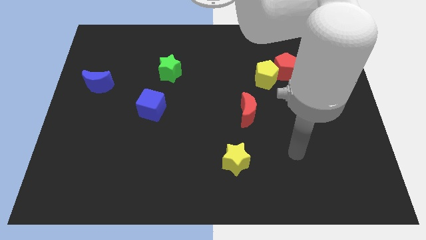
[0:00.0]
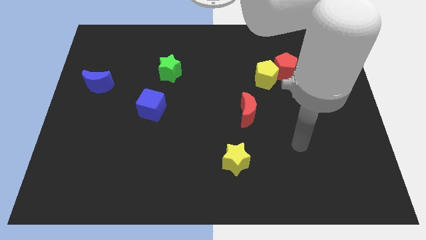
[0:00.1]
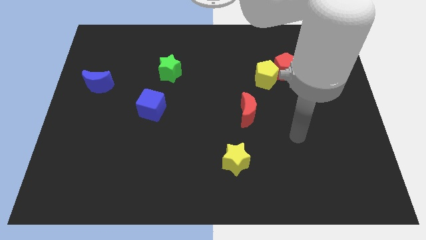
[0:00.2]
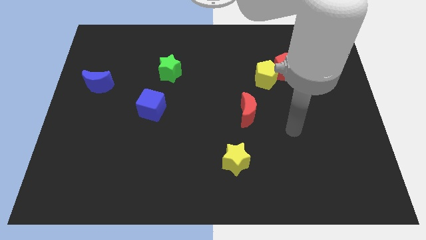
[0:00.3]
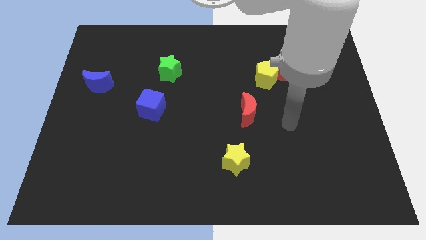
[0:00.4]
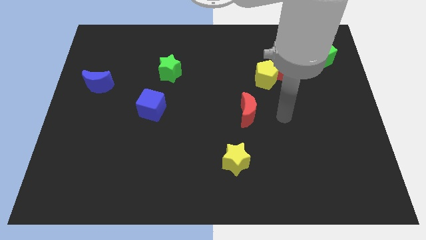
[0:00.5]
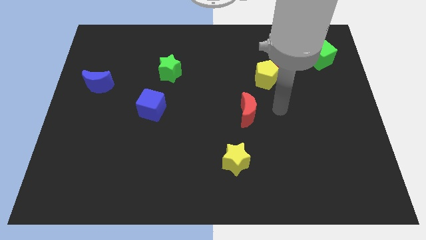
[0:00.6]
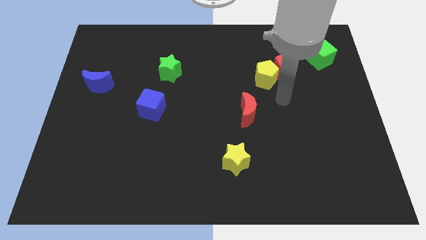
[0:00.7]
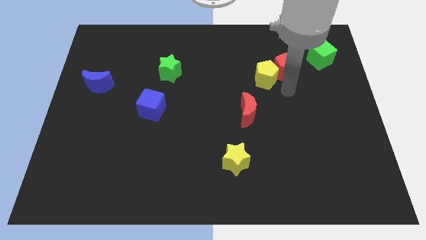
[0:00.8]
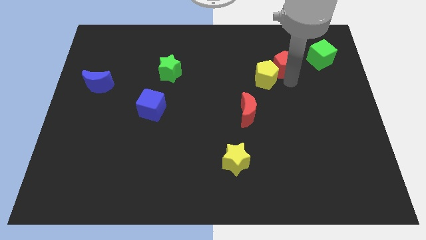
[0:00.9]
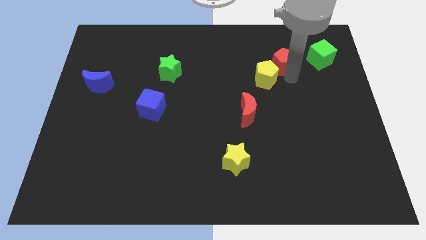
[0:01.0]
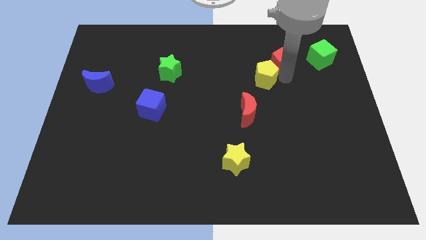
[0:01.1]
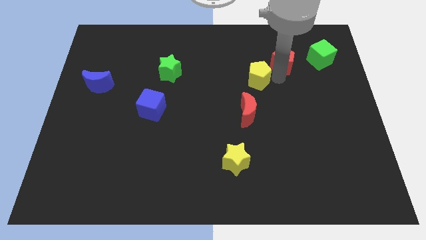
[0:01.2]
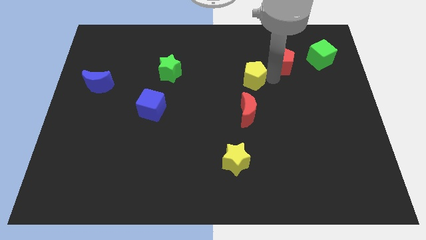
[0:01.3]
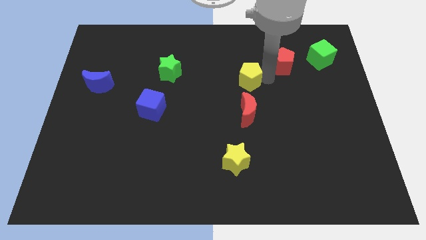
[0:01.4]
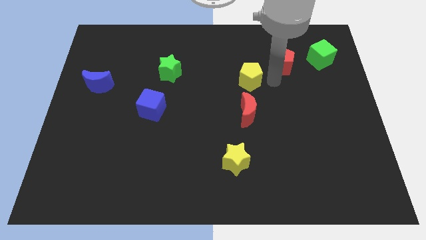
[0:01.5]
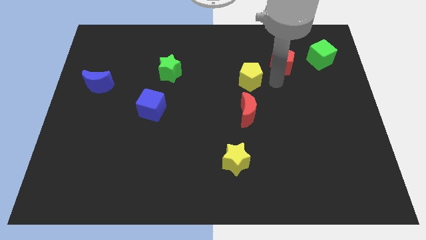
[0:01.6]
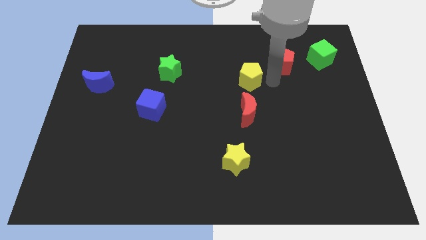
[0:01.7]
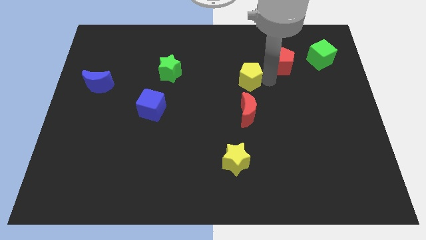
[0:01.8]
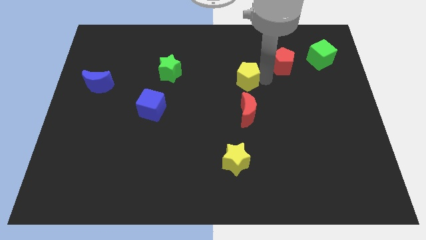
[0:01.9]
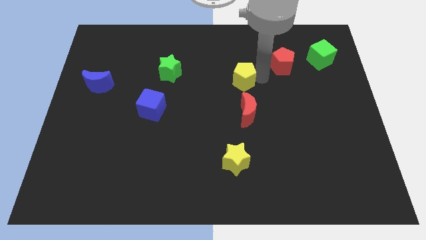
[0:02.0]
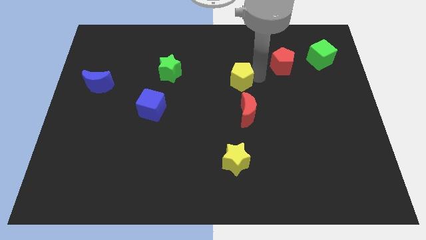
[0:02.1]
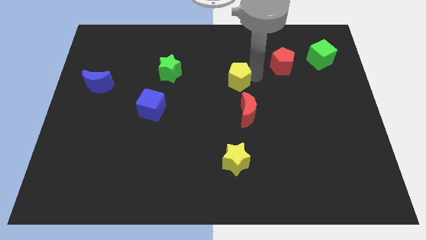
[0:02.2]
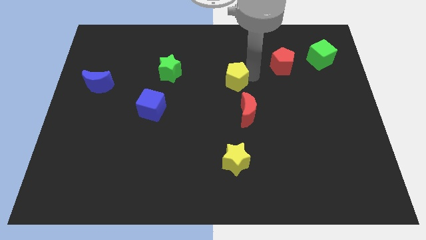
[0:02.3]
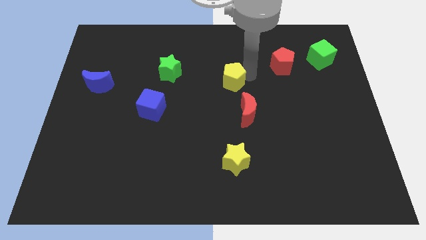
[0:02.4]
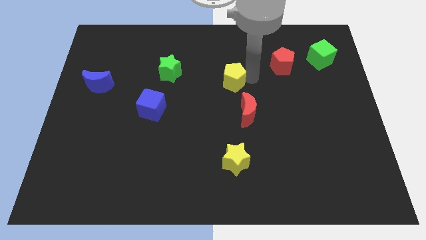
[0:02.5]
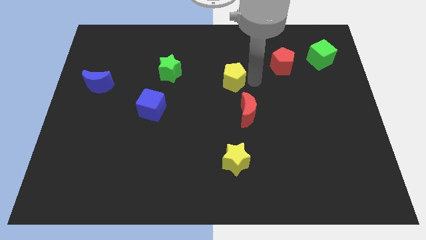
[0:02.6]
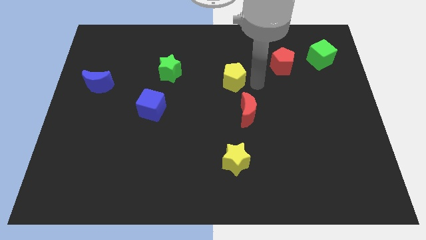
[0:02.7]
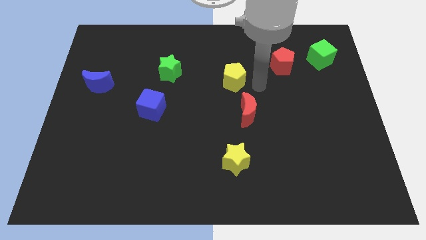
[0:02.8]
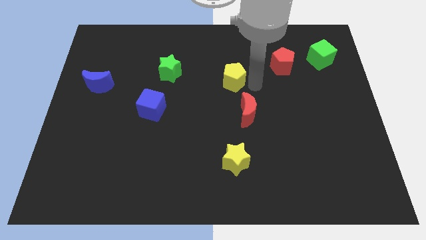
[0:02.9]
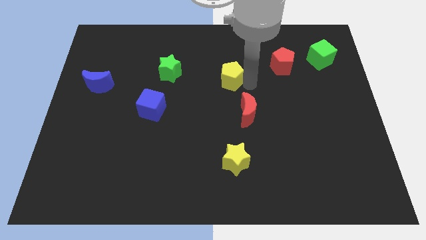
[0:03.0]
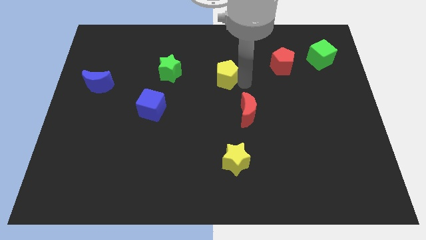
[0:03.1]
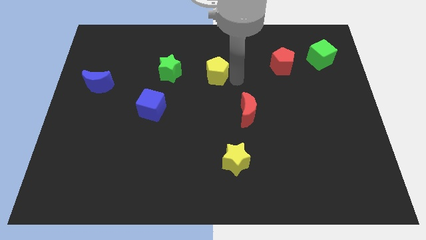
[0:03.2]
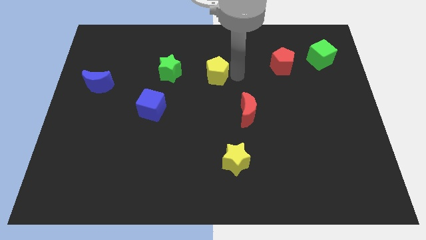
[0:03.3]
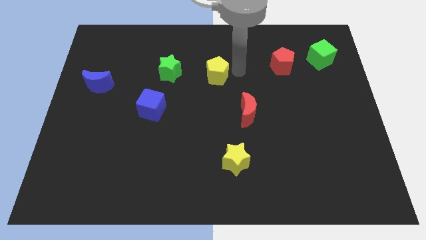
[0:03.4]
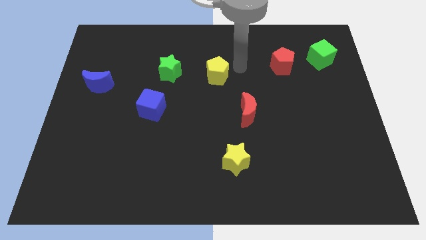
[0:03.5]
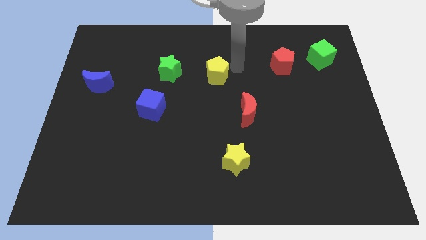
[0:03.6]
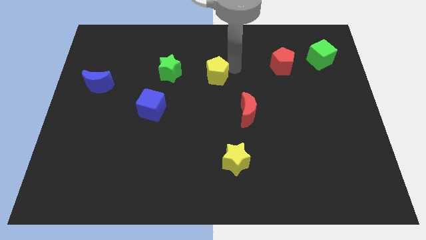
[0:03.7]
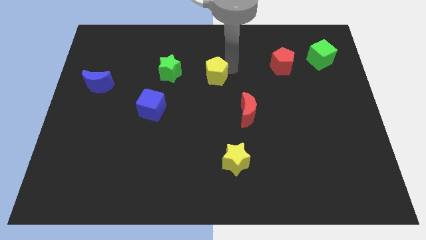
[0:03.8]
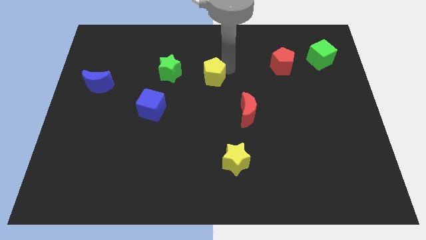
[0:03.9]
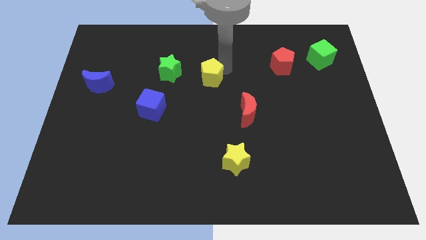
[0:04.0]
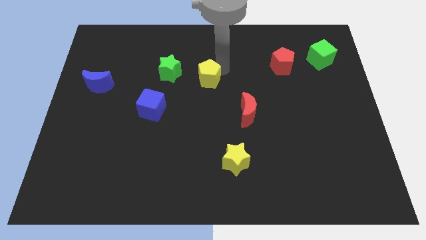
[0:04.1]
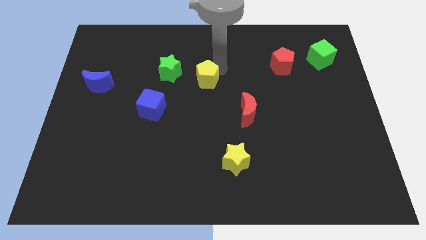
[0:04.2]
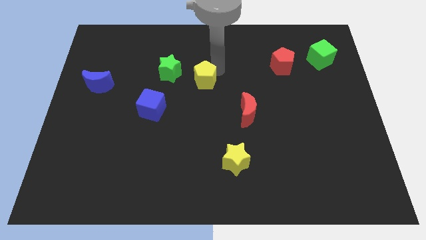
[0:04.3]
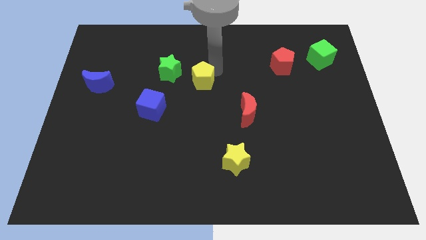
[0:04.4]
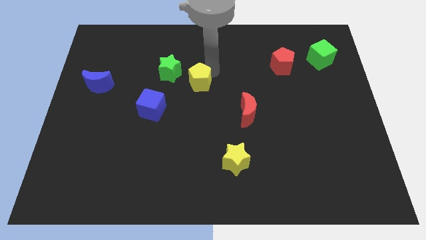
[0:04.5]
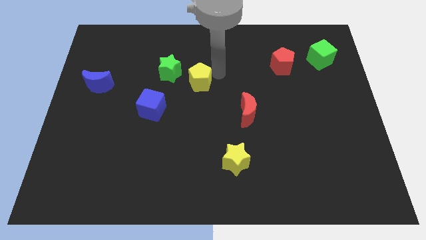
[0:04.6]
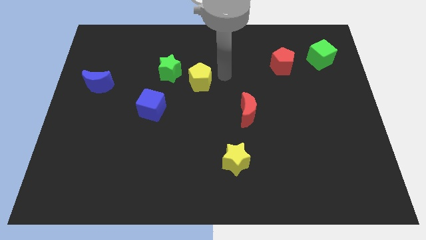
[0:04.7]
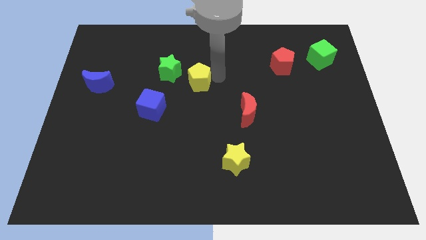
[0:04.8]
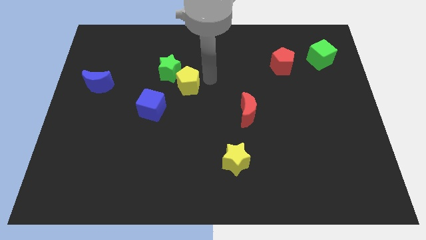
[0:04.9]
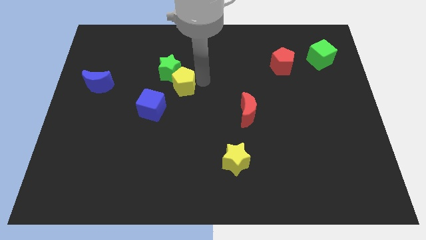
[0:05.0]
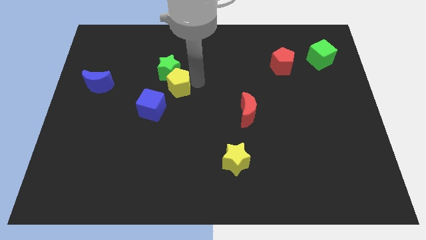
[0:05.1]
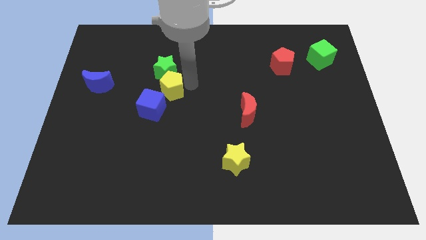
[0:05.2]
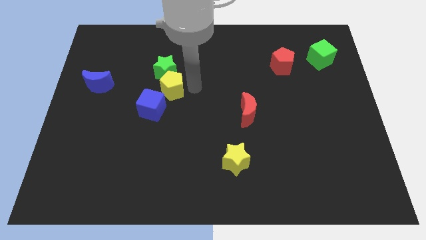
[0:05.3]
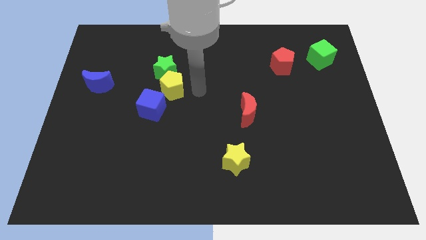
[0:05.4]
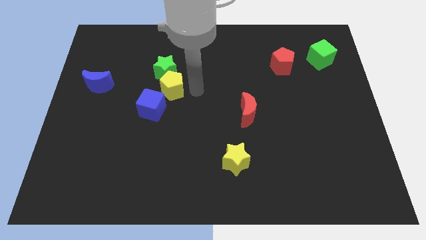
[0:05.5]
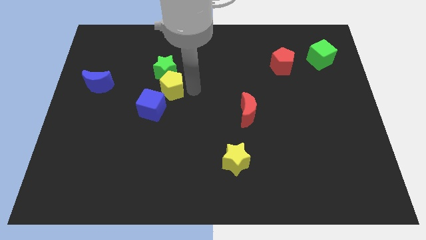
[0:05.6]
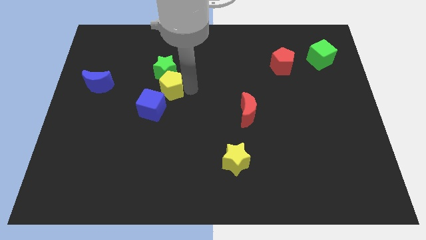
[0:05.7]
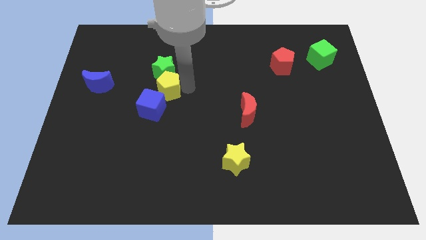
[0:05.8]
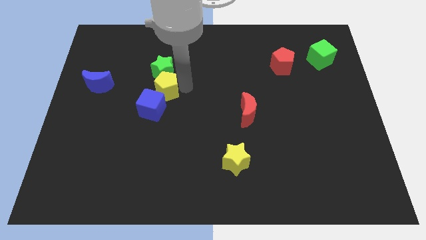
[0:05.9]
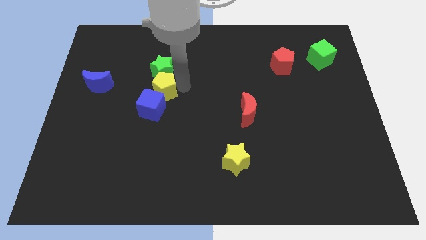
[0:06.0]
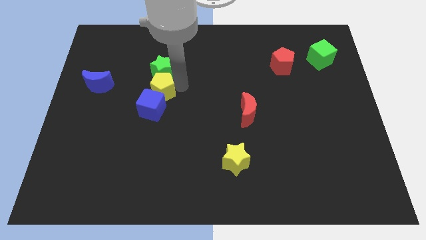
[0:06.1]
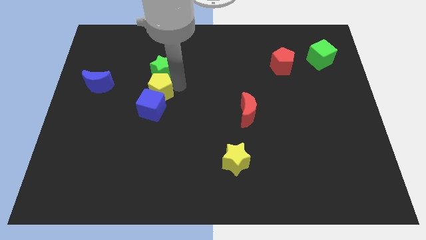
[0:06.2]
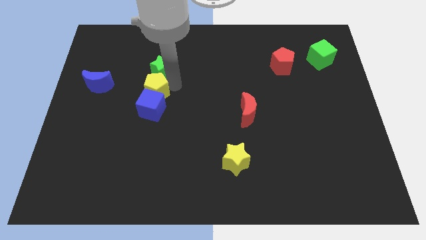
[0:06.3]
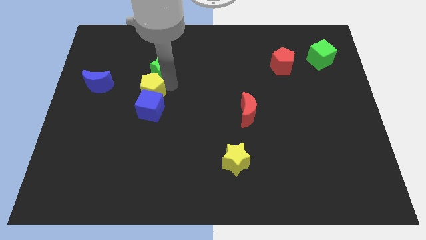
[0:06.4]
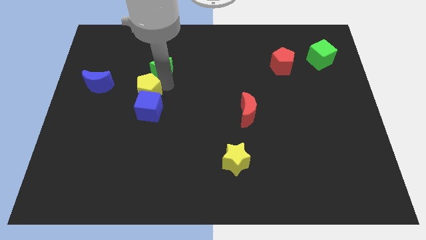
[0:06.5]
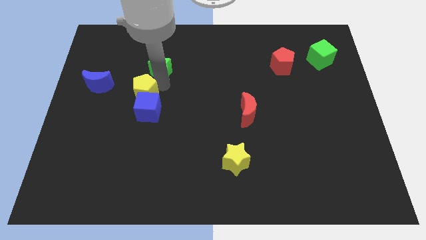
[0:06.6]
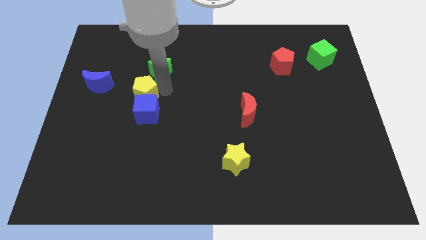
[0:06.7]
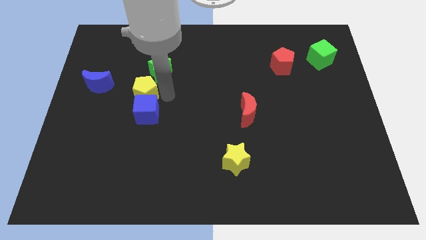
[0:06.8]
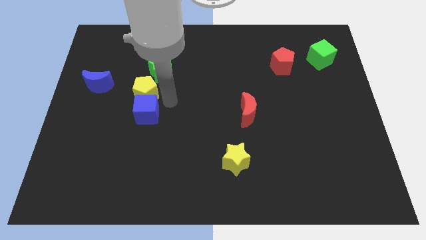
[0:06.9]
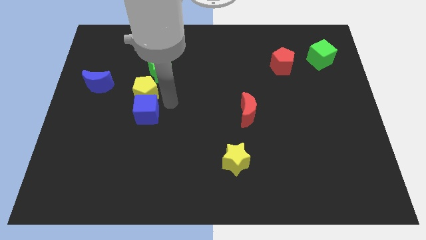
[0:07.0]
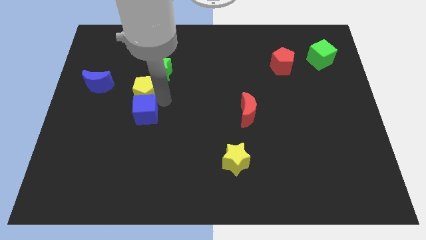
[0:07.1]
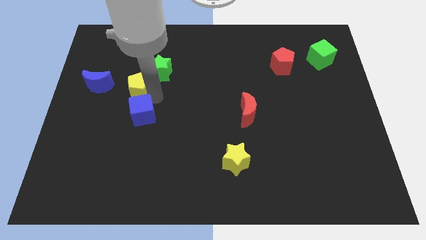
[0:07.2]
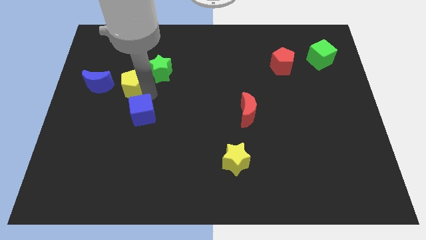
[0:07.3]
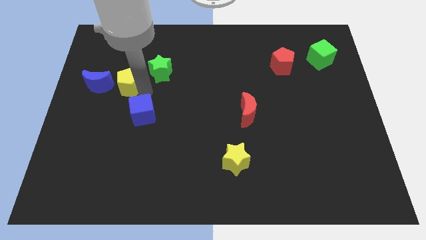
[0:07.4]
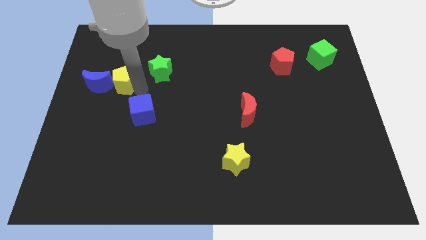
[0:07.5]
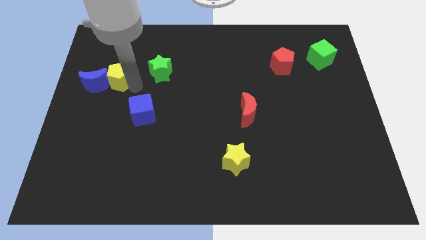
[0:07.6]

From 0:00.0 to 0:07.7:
put the yellow pentagon to the blue moon
